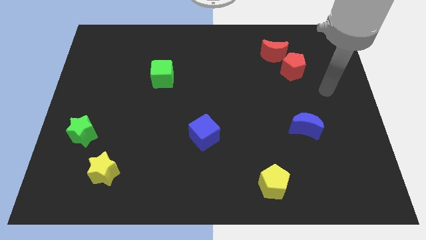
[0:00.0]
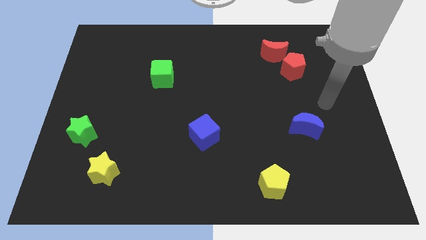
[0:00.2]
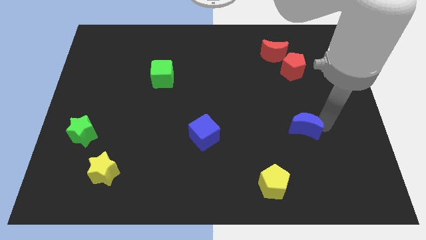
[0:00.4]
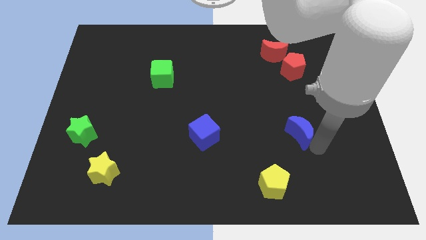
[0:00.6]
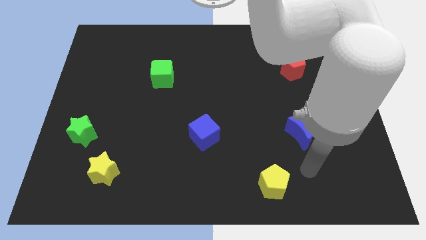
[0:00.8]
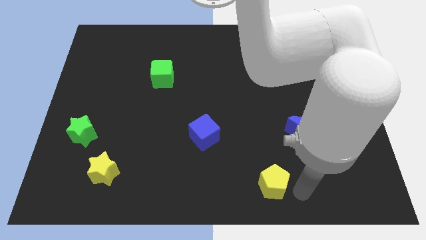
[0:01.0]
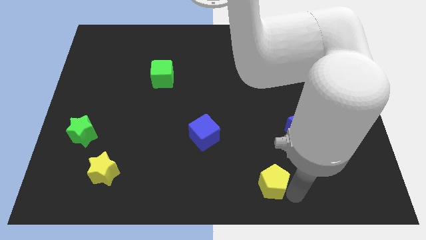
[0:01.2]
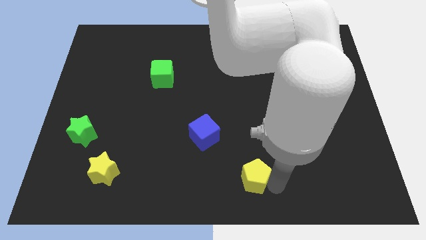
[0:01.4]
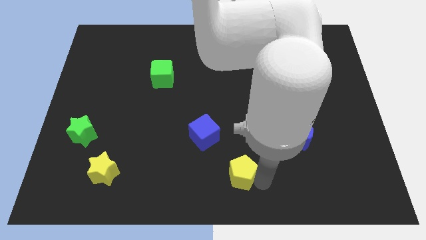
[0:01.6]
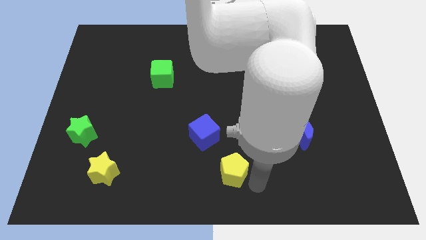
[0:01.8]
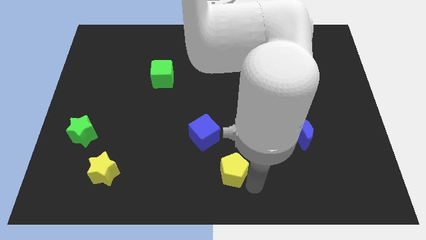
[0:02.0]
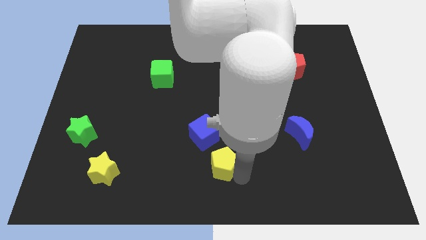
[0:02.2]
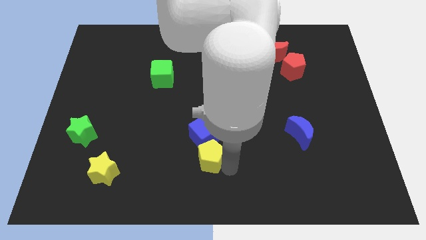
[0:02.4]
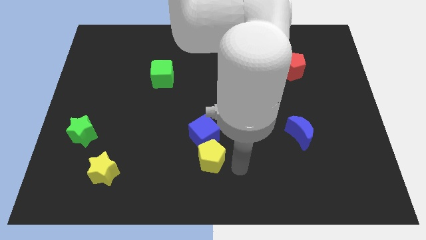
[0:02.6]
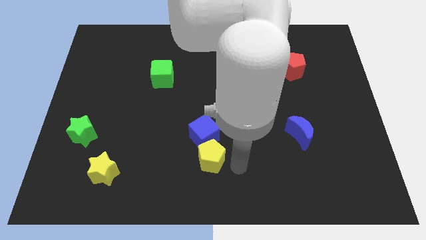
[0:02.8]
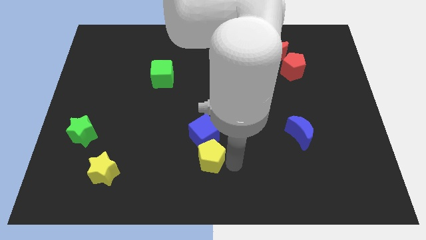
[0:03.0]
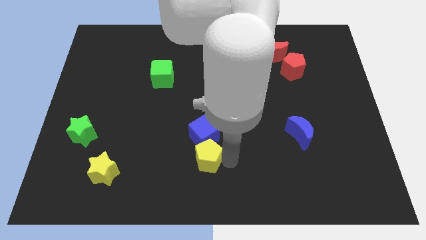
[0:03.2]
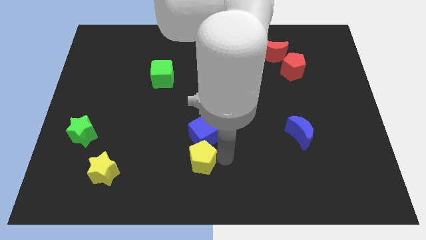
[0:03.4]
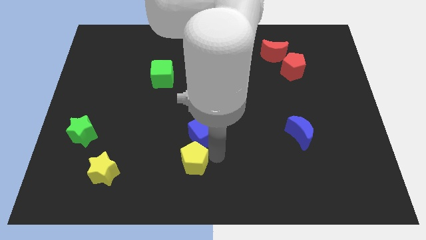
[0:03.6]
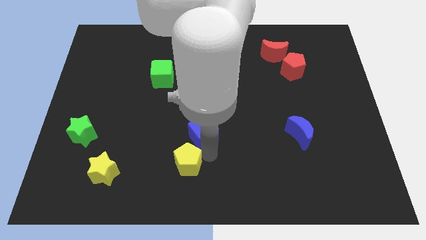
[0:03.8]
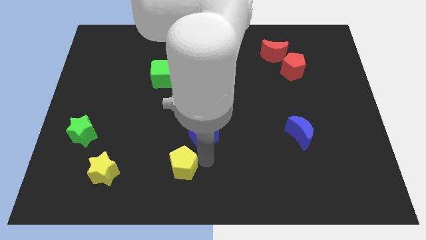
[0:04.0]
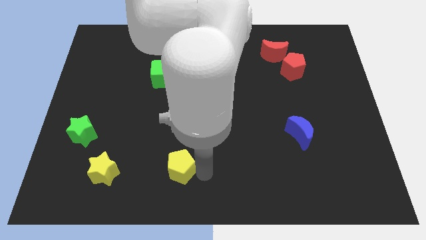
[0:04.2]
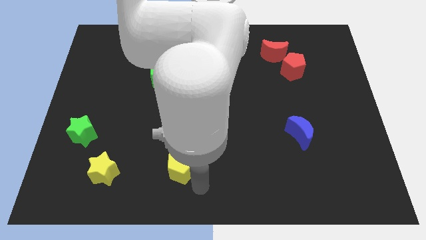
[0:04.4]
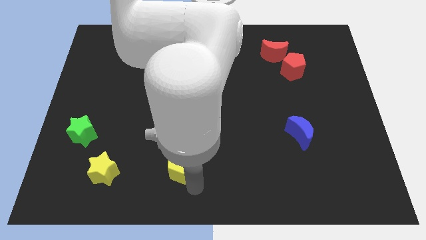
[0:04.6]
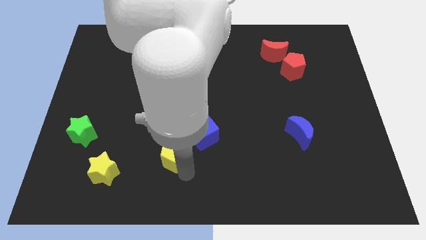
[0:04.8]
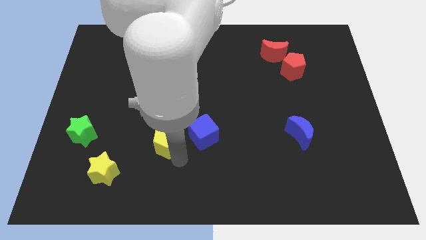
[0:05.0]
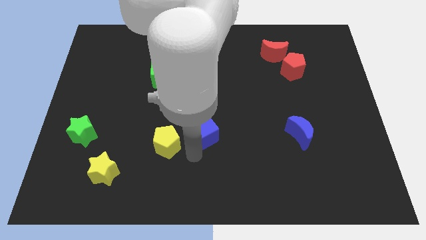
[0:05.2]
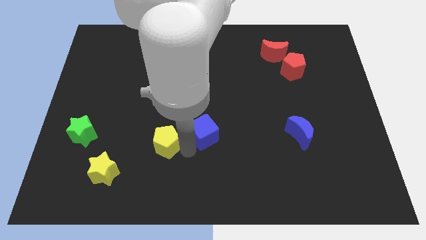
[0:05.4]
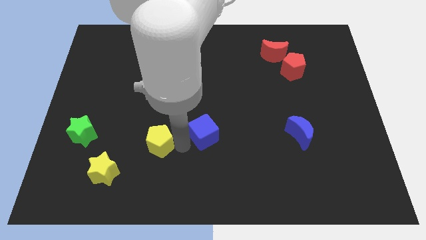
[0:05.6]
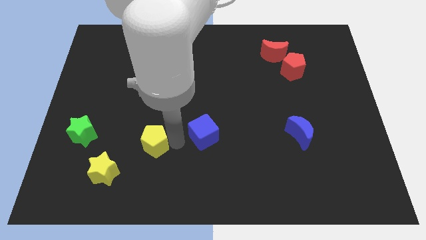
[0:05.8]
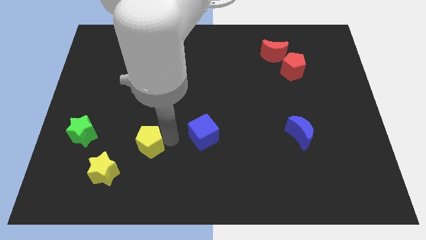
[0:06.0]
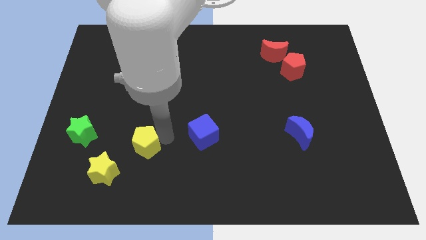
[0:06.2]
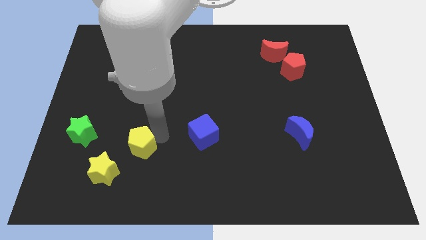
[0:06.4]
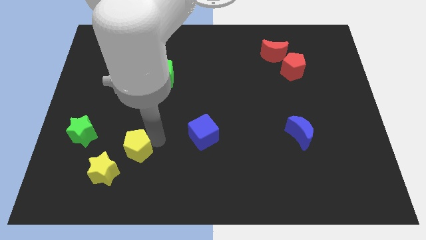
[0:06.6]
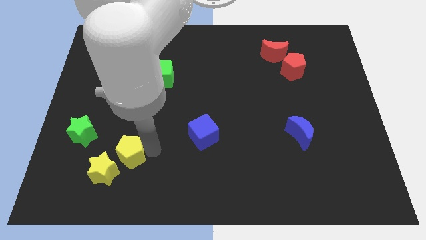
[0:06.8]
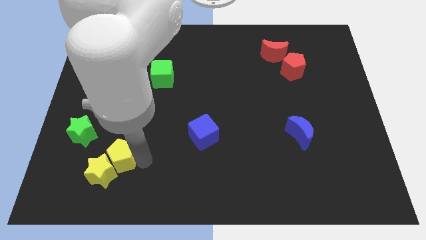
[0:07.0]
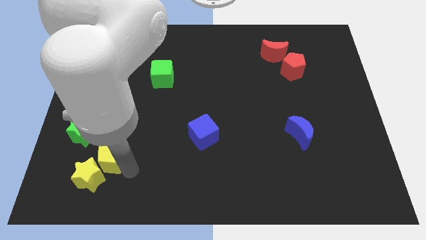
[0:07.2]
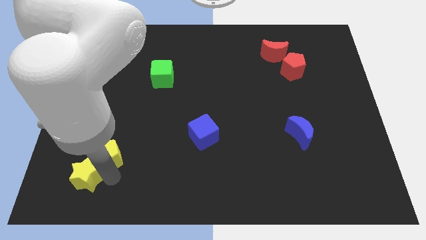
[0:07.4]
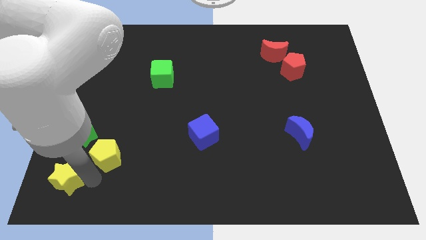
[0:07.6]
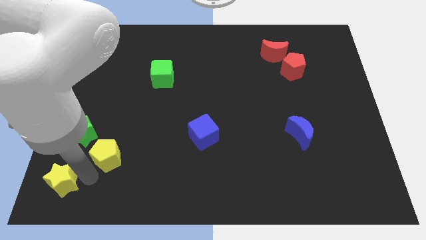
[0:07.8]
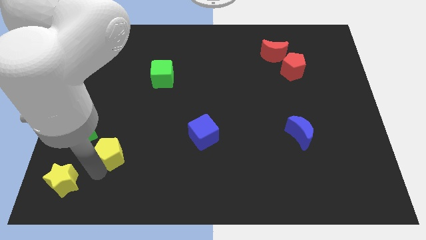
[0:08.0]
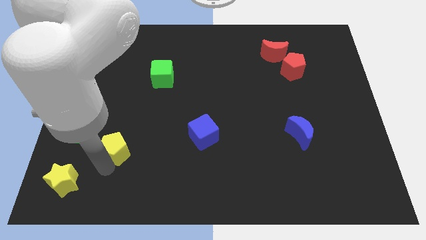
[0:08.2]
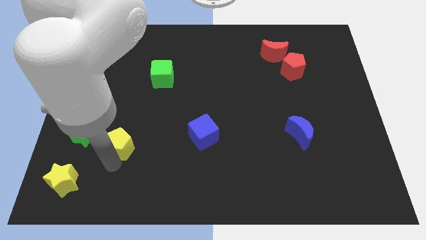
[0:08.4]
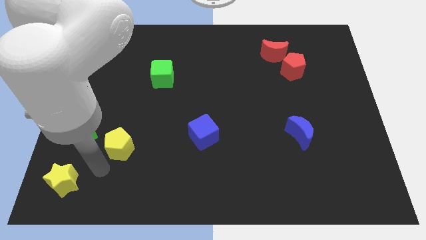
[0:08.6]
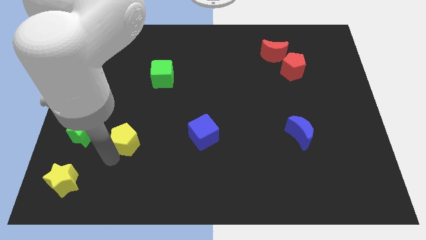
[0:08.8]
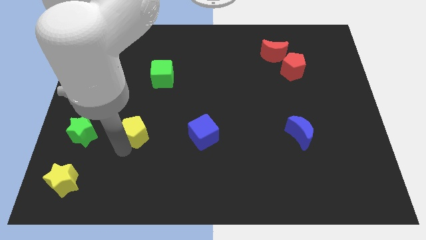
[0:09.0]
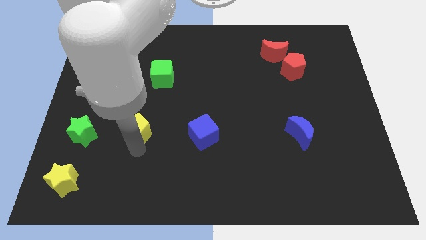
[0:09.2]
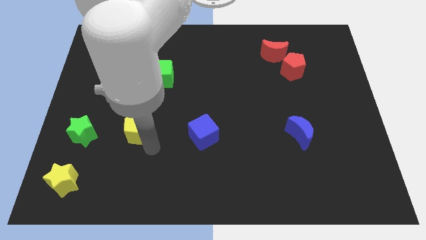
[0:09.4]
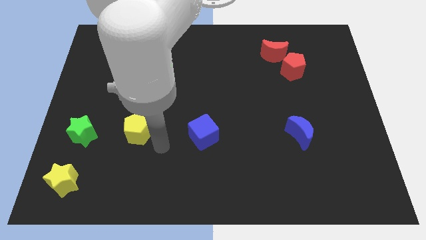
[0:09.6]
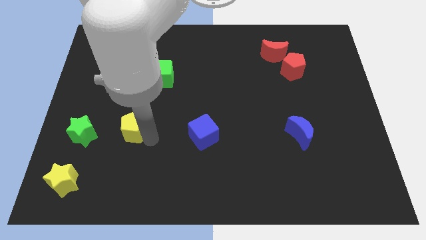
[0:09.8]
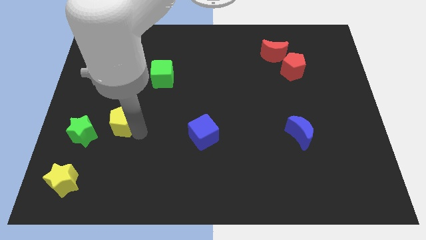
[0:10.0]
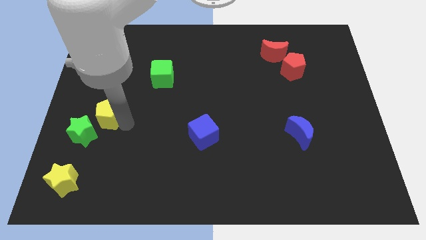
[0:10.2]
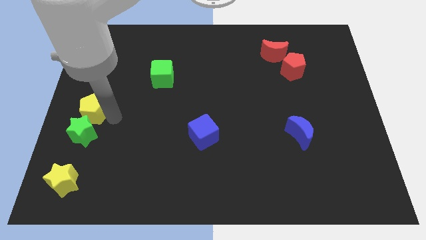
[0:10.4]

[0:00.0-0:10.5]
move the yellow pentagon to the center left

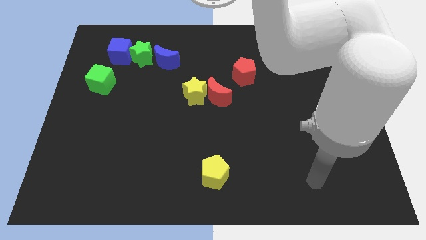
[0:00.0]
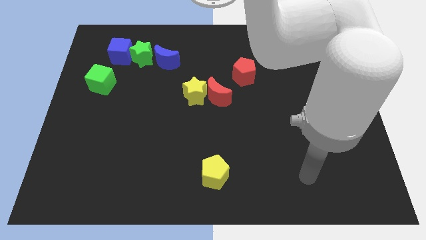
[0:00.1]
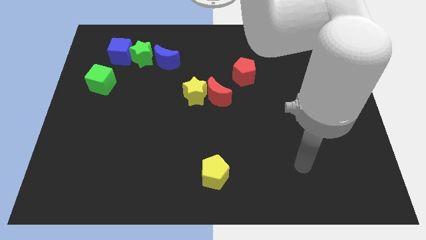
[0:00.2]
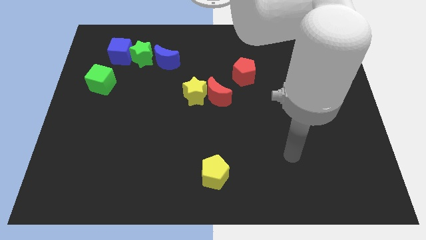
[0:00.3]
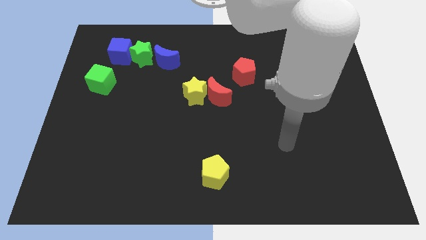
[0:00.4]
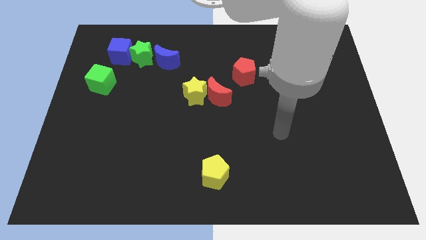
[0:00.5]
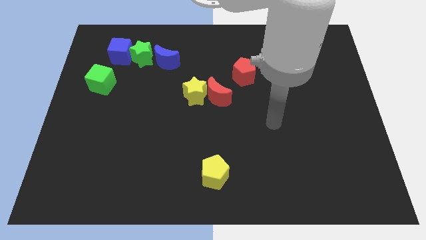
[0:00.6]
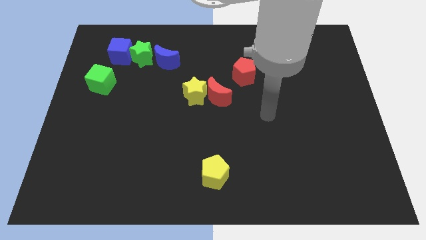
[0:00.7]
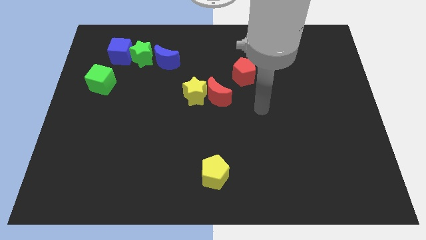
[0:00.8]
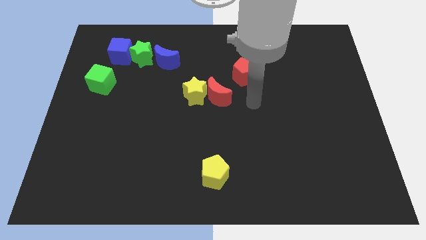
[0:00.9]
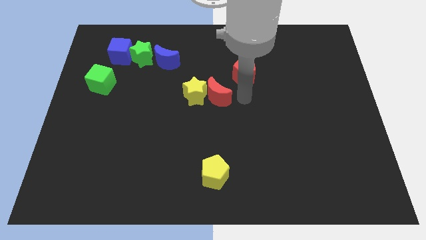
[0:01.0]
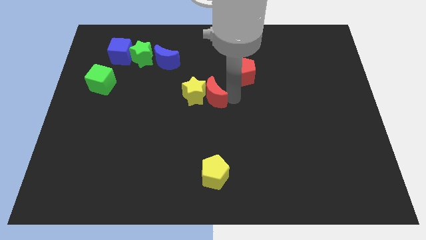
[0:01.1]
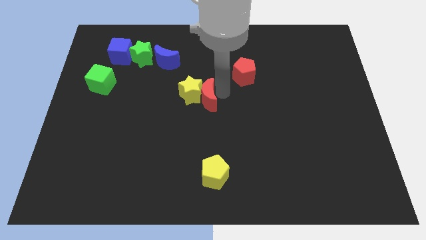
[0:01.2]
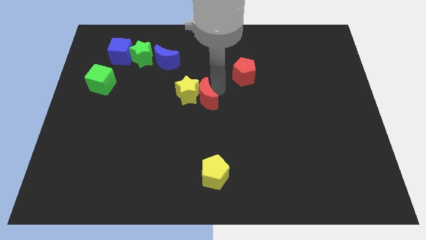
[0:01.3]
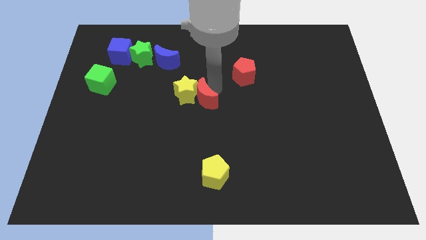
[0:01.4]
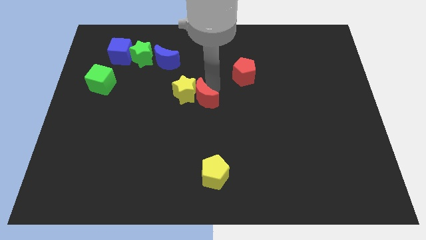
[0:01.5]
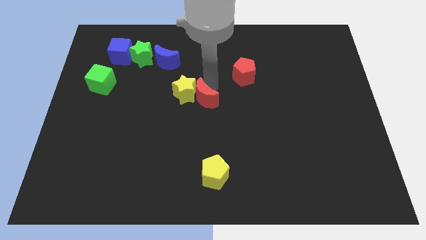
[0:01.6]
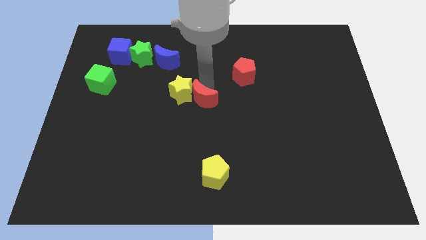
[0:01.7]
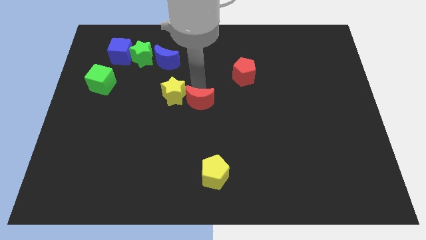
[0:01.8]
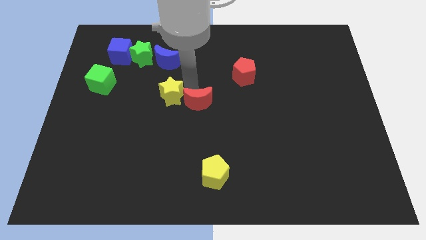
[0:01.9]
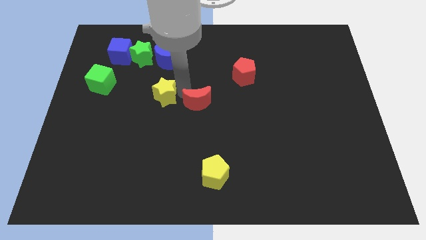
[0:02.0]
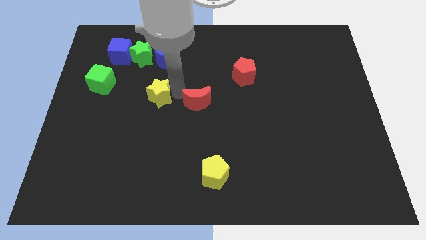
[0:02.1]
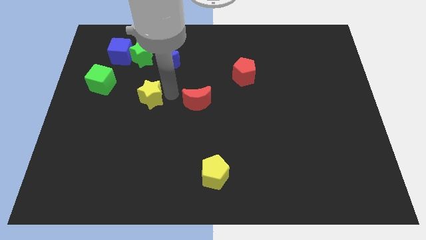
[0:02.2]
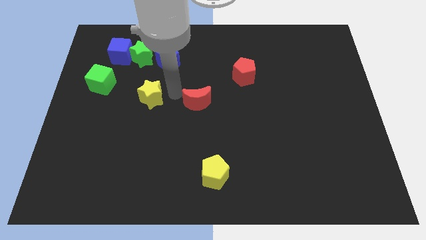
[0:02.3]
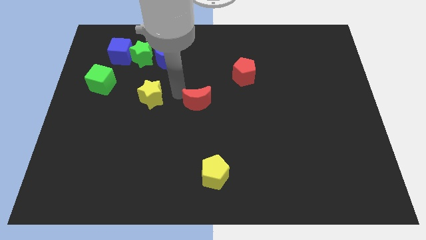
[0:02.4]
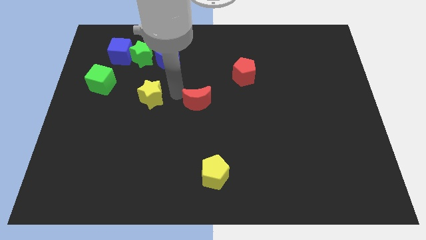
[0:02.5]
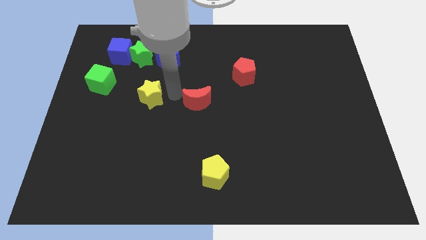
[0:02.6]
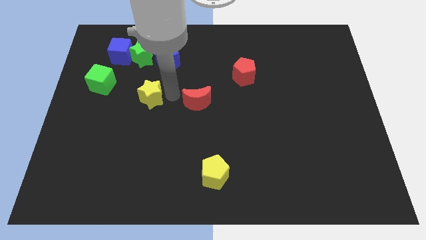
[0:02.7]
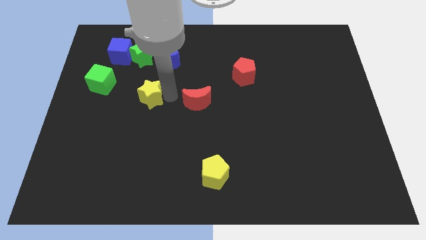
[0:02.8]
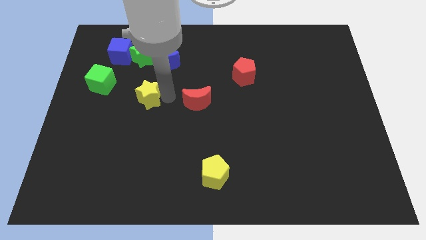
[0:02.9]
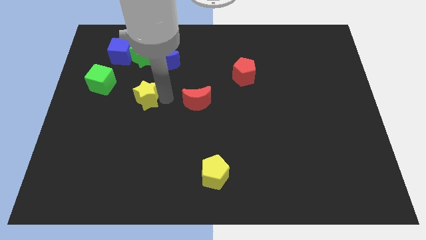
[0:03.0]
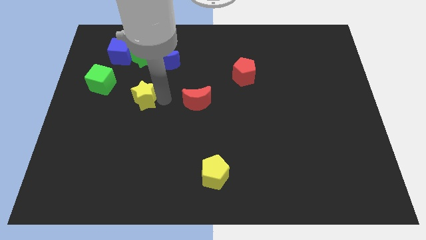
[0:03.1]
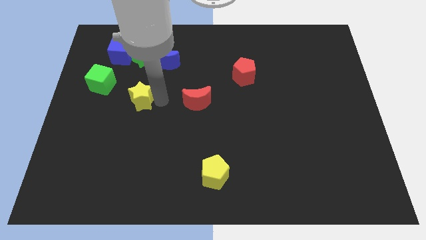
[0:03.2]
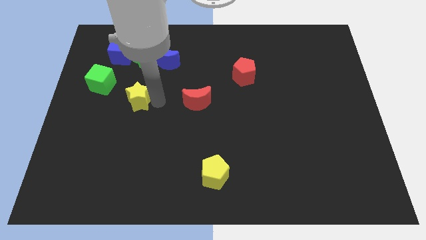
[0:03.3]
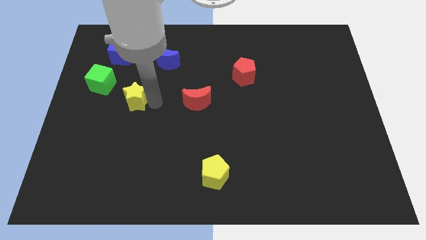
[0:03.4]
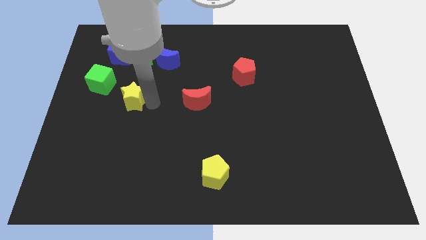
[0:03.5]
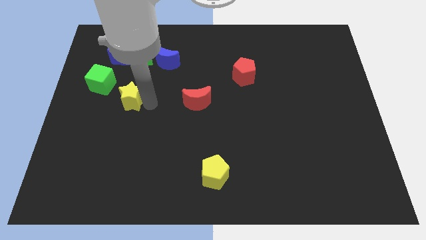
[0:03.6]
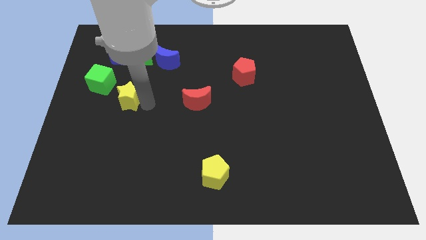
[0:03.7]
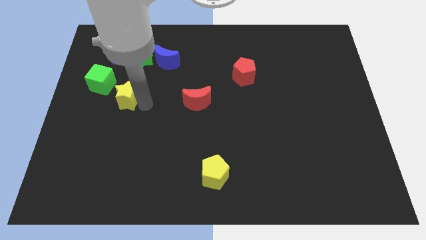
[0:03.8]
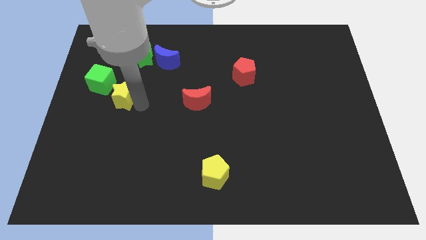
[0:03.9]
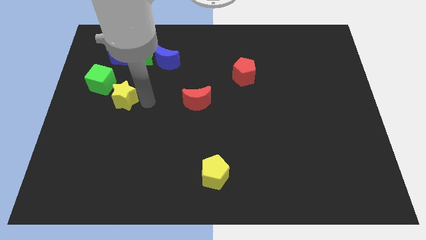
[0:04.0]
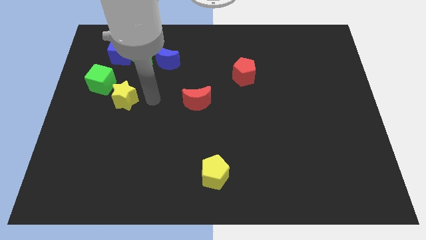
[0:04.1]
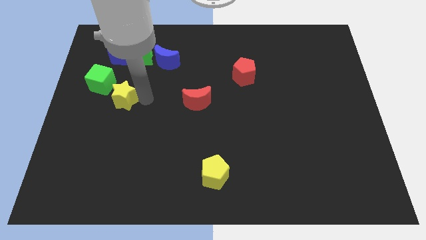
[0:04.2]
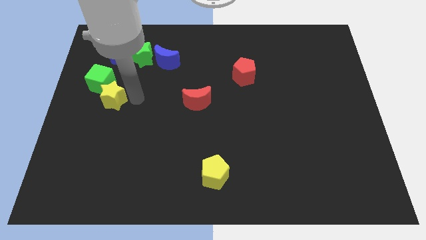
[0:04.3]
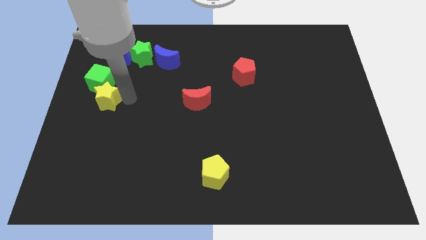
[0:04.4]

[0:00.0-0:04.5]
push the yellow star to the center left
